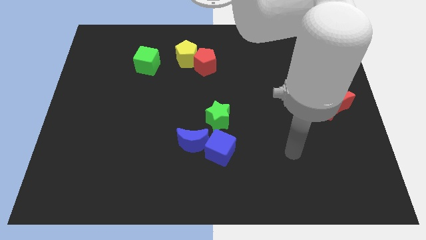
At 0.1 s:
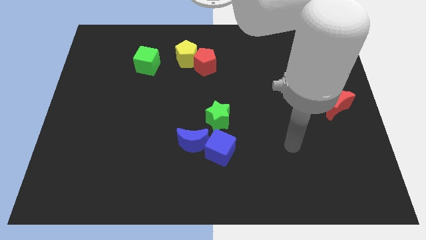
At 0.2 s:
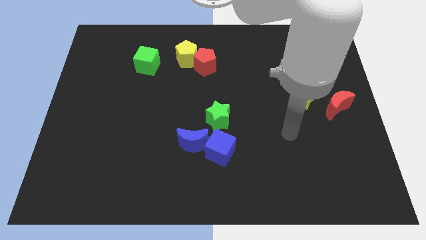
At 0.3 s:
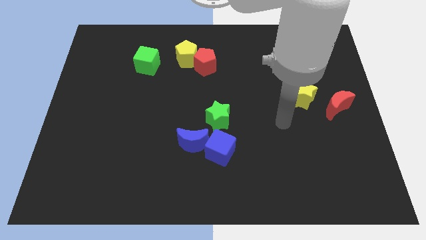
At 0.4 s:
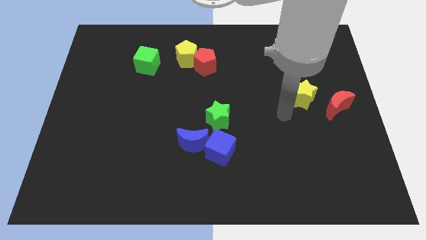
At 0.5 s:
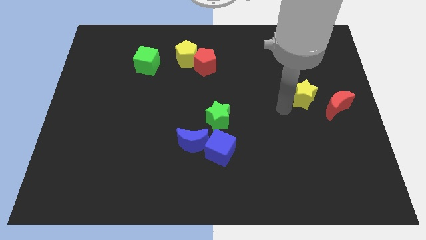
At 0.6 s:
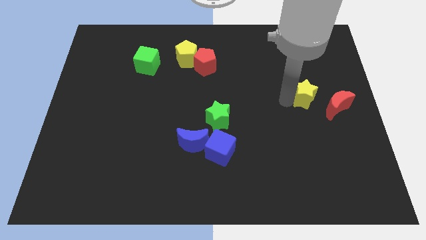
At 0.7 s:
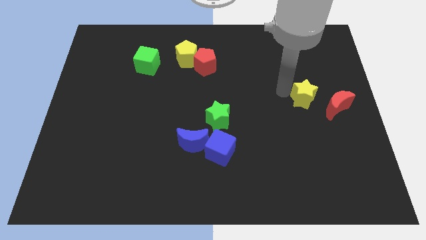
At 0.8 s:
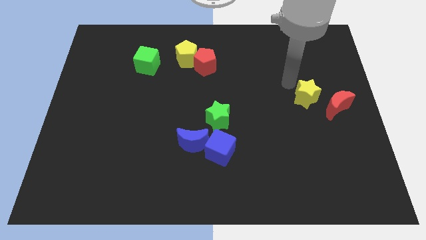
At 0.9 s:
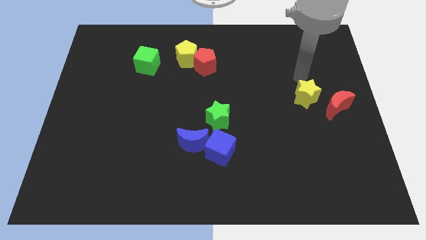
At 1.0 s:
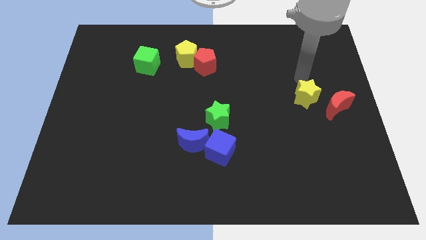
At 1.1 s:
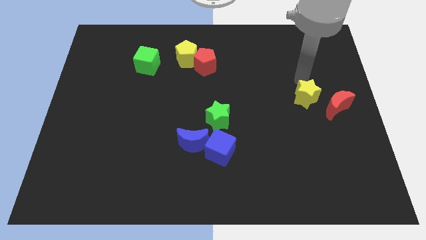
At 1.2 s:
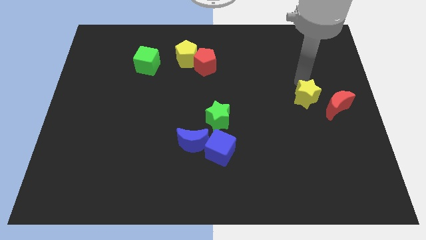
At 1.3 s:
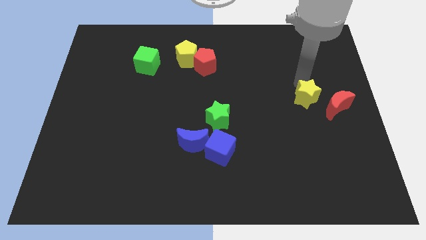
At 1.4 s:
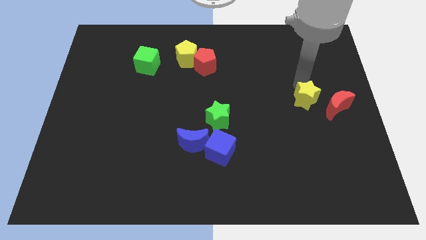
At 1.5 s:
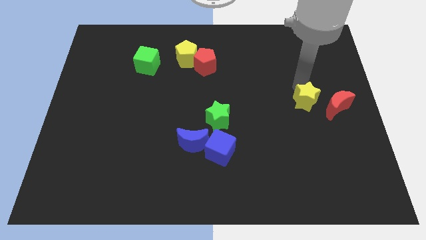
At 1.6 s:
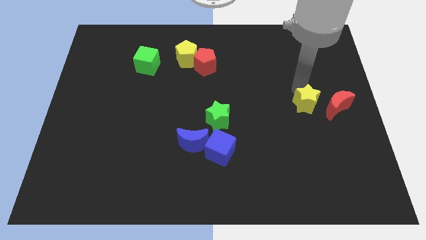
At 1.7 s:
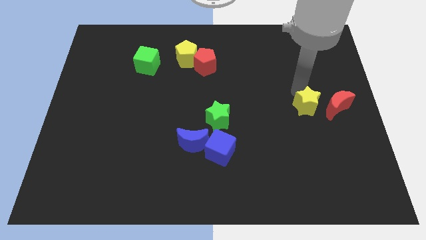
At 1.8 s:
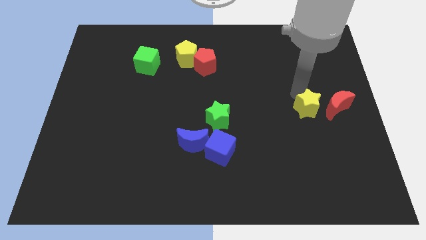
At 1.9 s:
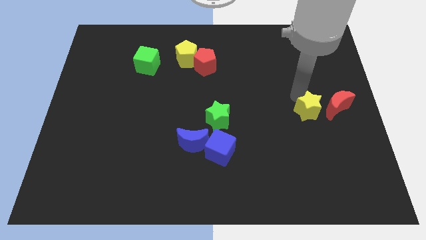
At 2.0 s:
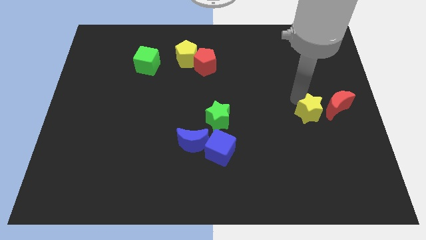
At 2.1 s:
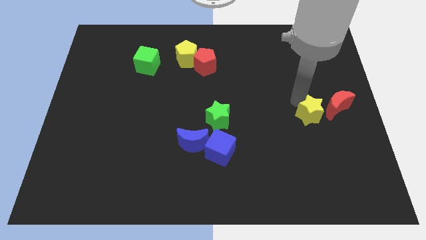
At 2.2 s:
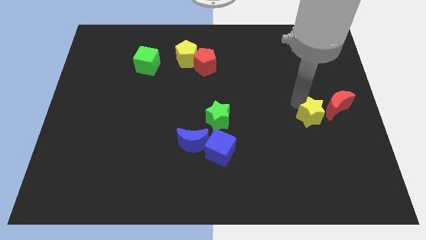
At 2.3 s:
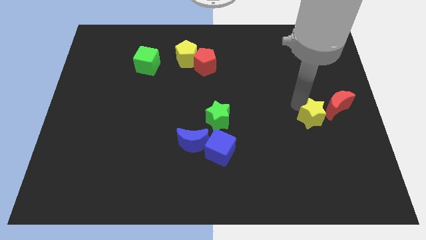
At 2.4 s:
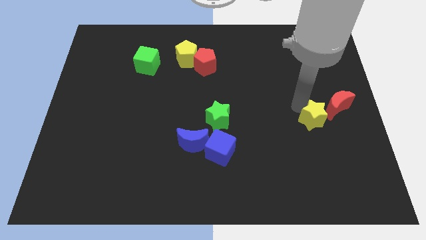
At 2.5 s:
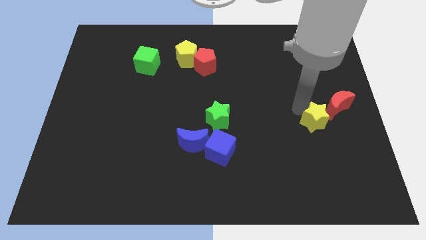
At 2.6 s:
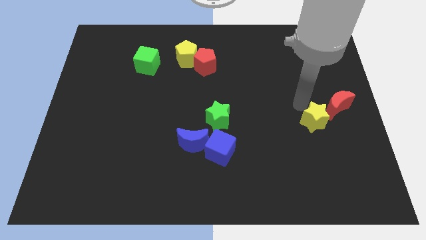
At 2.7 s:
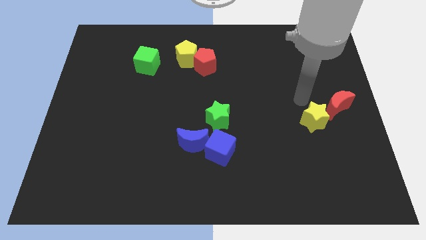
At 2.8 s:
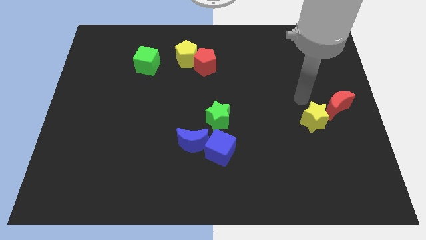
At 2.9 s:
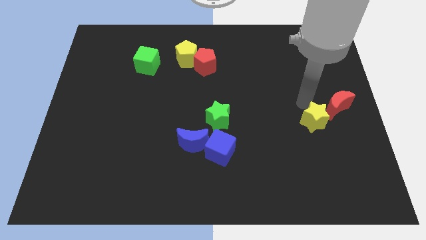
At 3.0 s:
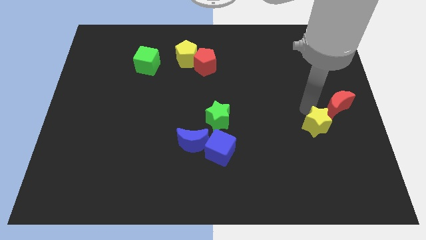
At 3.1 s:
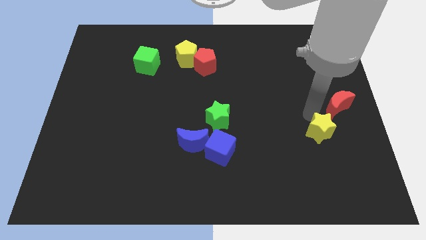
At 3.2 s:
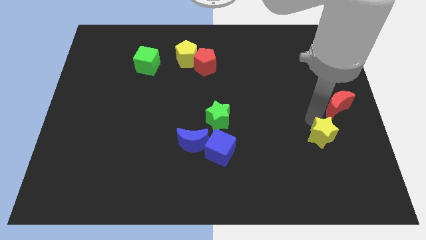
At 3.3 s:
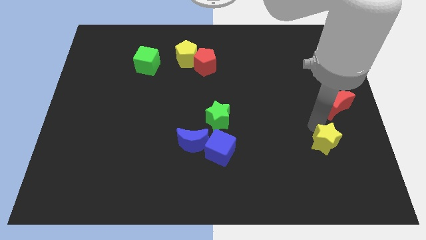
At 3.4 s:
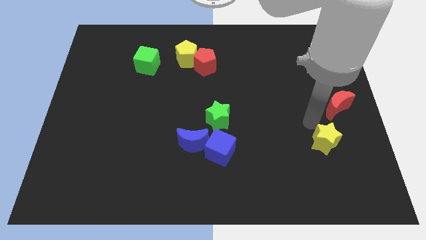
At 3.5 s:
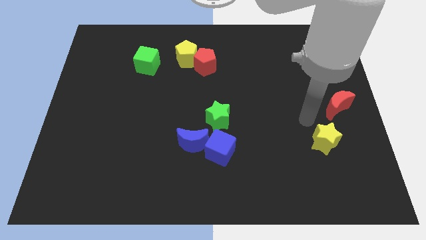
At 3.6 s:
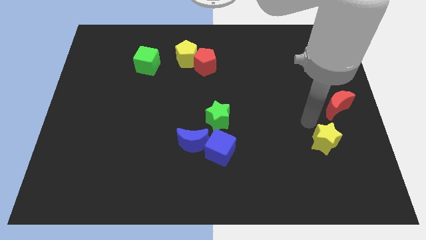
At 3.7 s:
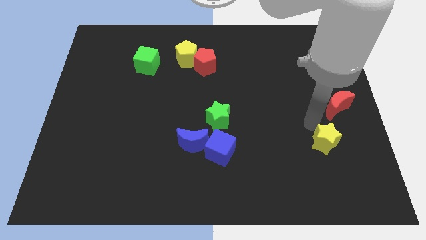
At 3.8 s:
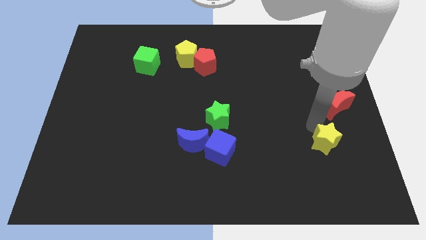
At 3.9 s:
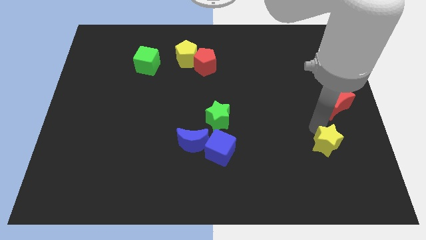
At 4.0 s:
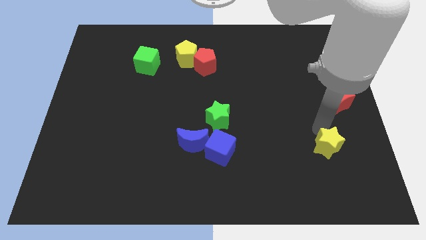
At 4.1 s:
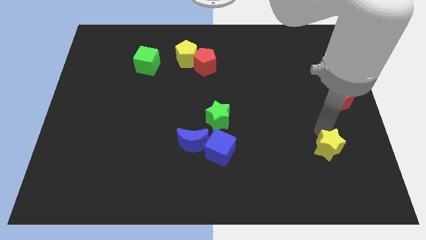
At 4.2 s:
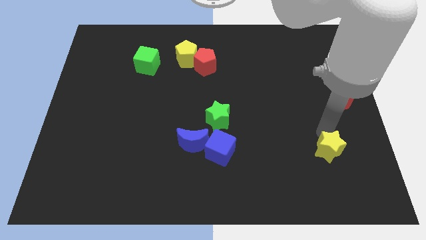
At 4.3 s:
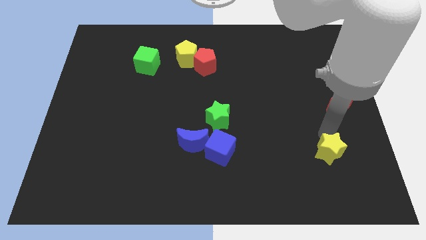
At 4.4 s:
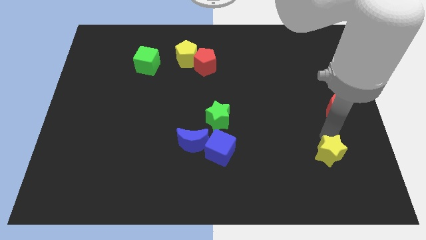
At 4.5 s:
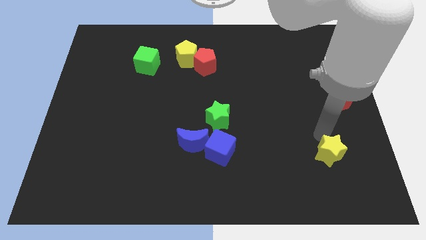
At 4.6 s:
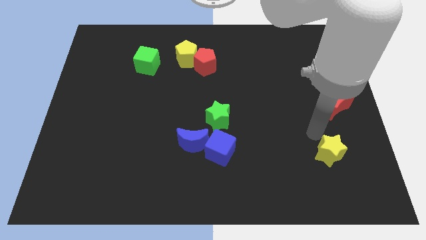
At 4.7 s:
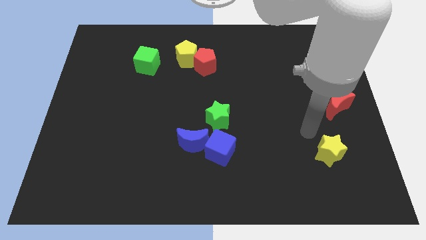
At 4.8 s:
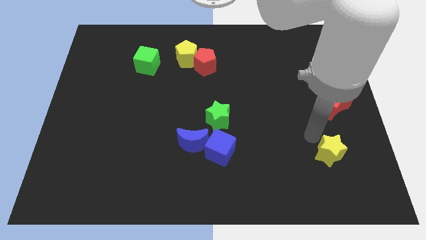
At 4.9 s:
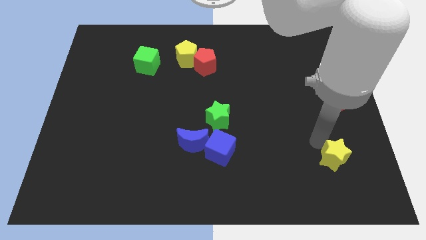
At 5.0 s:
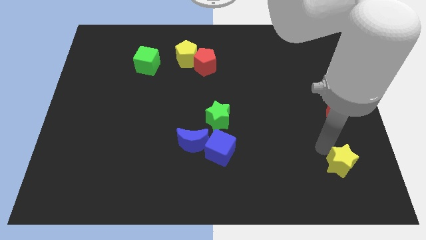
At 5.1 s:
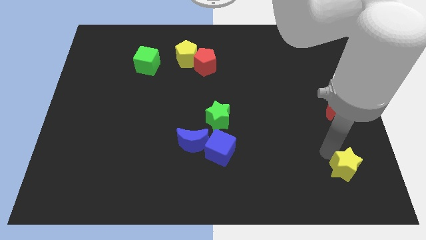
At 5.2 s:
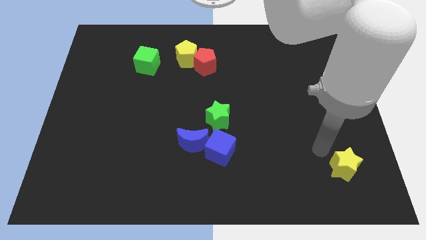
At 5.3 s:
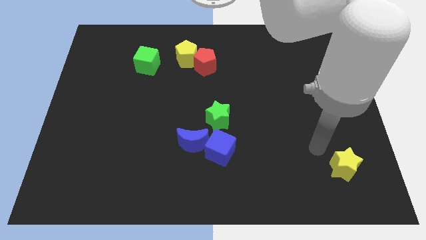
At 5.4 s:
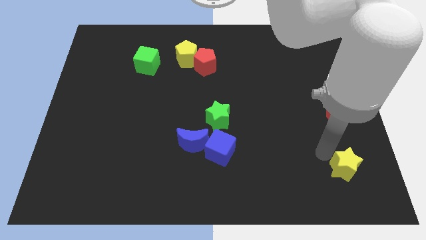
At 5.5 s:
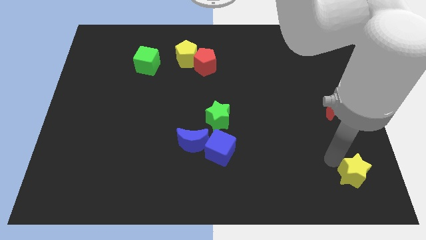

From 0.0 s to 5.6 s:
move the yellow star to the bottom right corner
